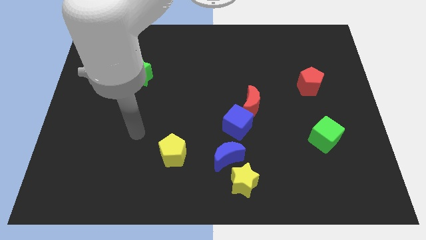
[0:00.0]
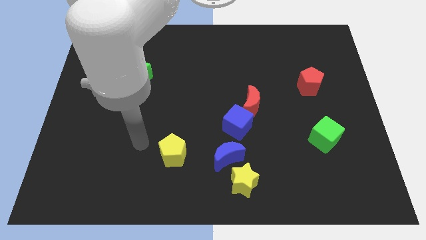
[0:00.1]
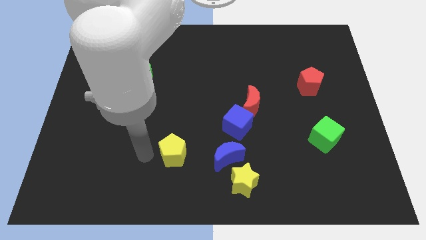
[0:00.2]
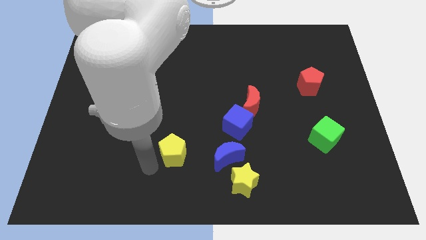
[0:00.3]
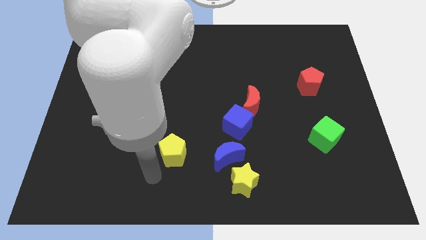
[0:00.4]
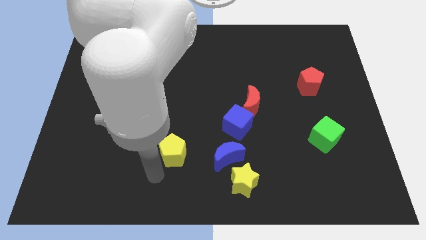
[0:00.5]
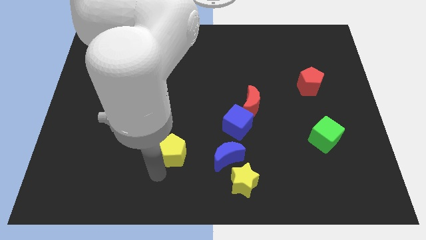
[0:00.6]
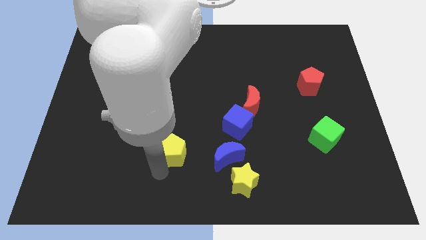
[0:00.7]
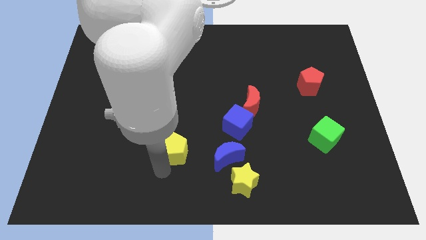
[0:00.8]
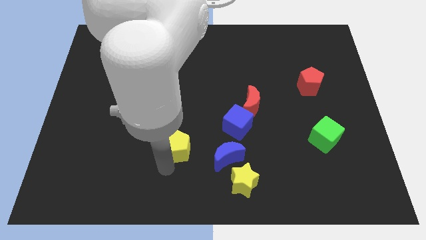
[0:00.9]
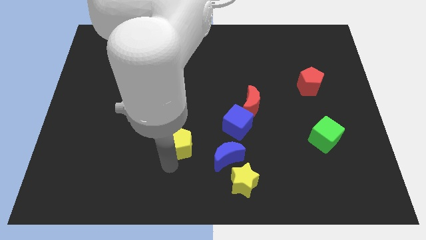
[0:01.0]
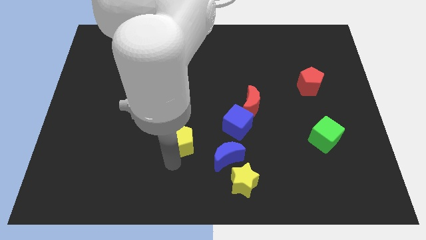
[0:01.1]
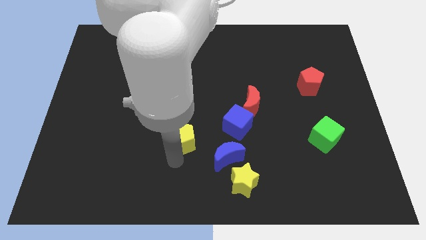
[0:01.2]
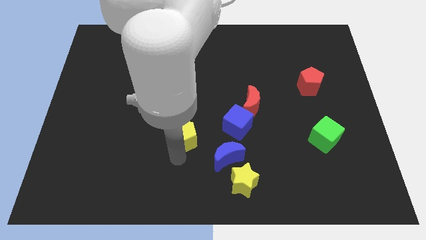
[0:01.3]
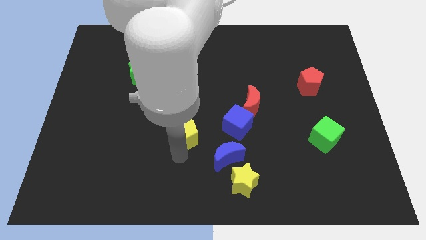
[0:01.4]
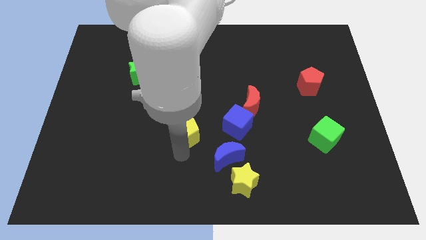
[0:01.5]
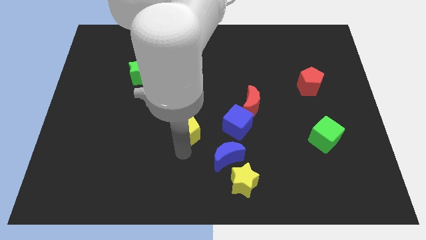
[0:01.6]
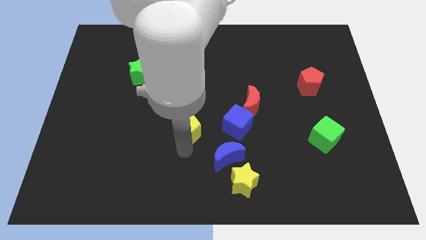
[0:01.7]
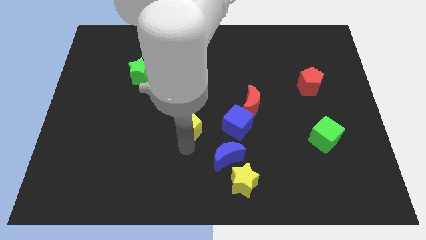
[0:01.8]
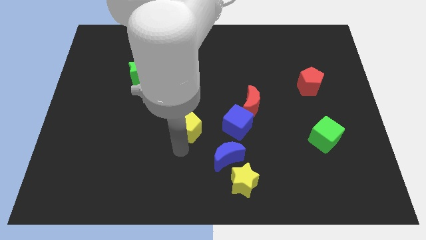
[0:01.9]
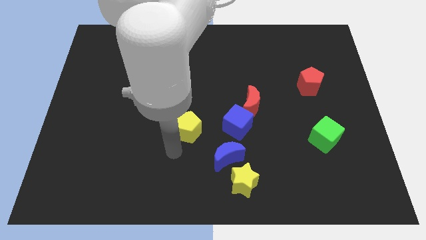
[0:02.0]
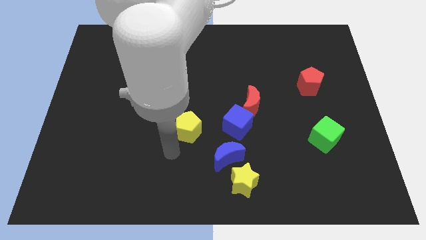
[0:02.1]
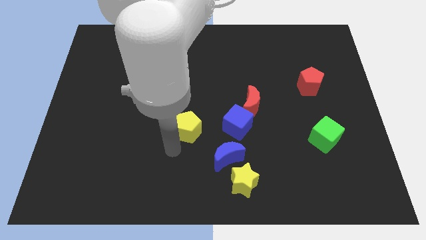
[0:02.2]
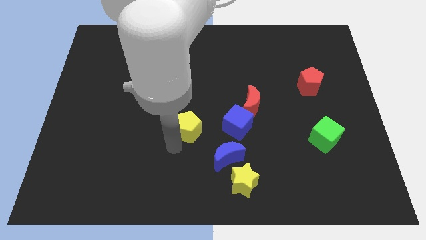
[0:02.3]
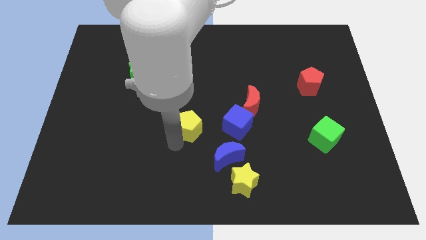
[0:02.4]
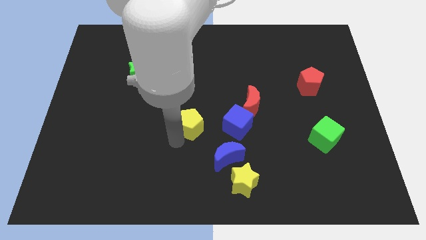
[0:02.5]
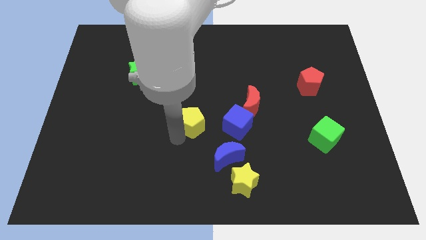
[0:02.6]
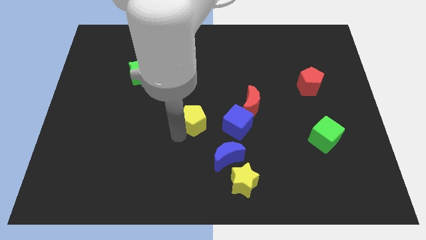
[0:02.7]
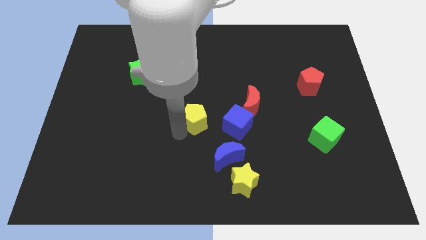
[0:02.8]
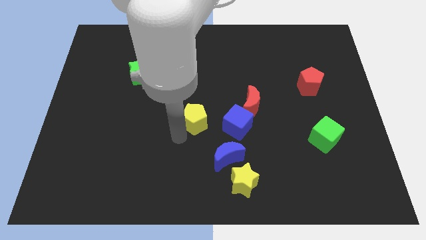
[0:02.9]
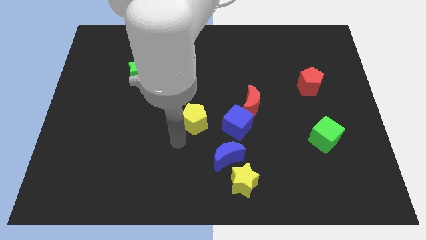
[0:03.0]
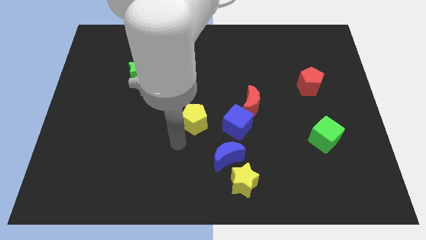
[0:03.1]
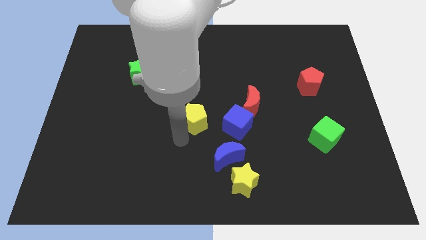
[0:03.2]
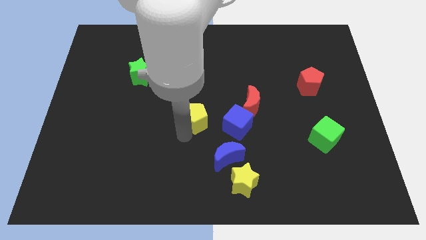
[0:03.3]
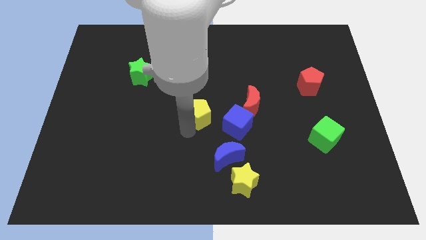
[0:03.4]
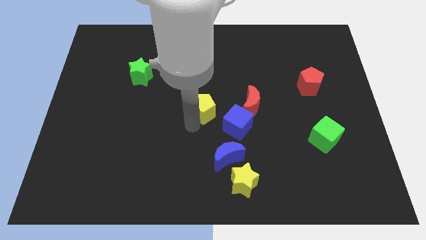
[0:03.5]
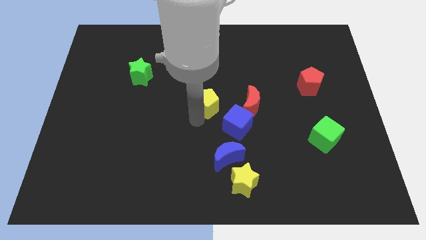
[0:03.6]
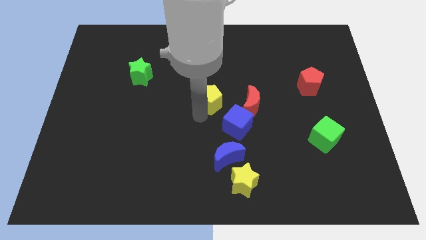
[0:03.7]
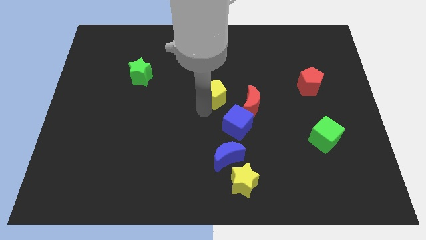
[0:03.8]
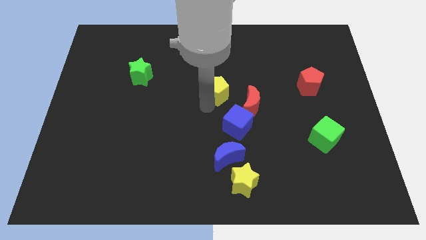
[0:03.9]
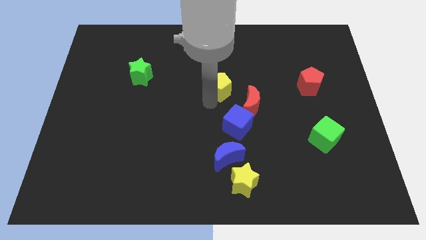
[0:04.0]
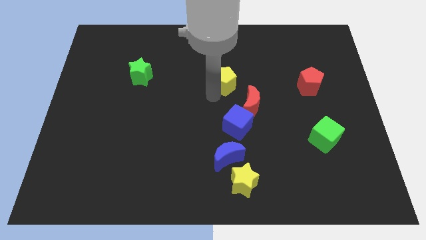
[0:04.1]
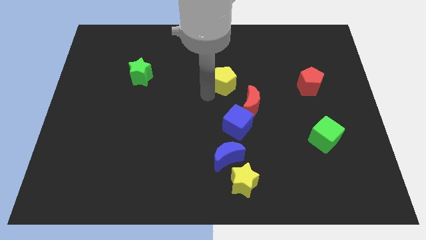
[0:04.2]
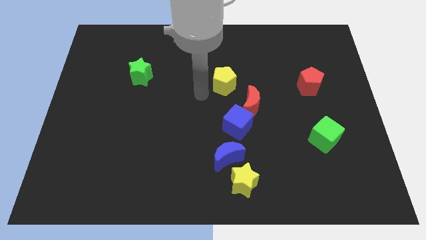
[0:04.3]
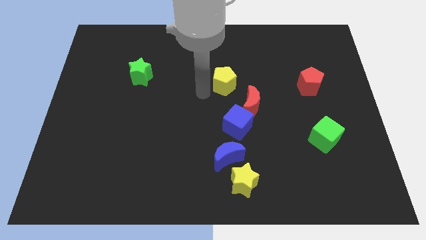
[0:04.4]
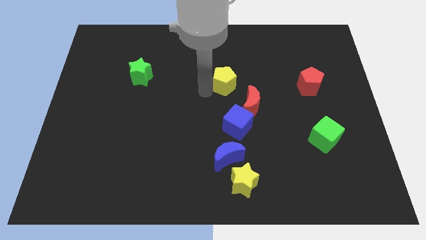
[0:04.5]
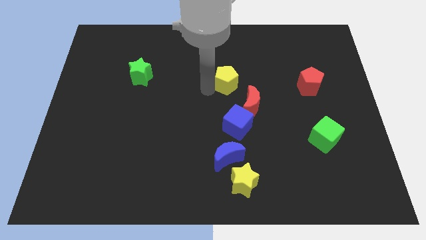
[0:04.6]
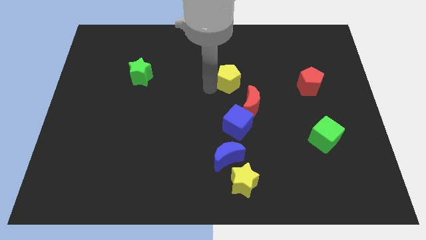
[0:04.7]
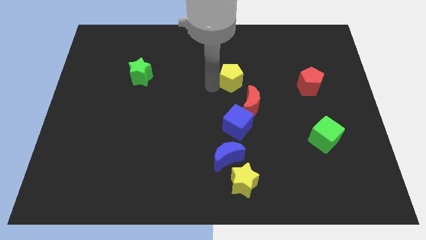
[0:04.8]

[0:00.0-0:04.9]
move the yellow pentagon to the top of the red moon

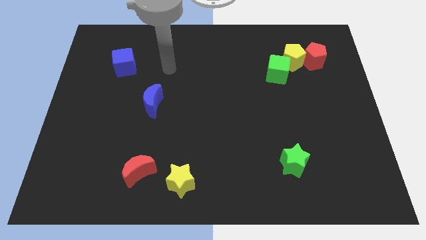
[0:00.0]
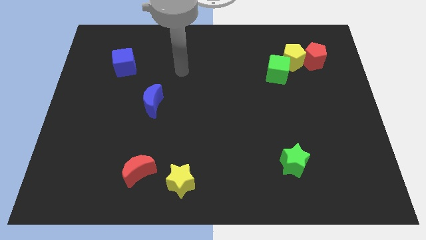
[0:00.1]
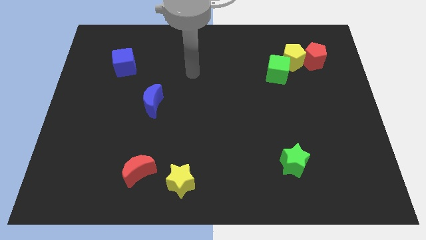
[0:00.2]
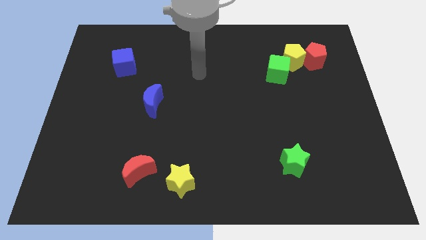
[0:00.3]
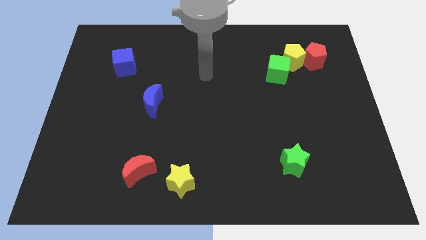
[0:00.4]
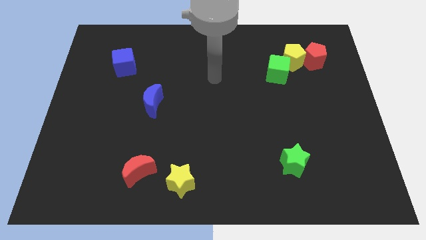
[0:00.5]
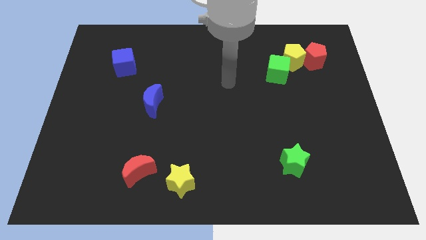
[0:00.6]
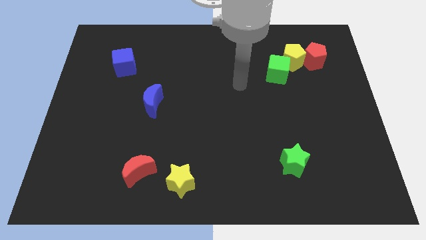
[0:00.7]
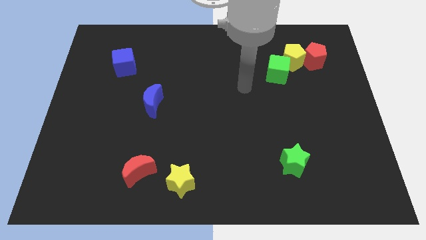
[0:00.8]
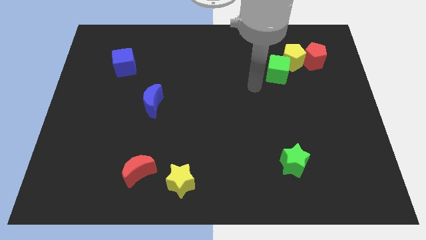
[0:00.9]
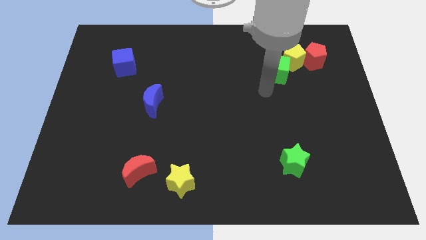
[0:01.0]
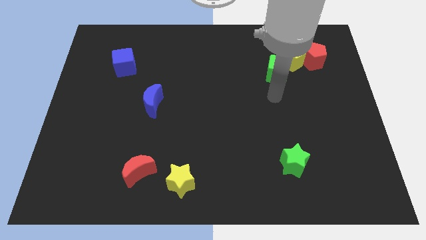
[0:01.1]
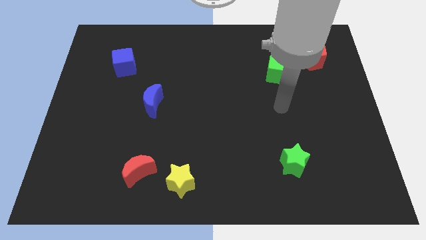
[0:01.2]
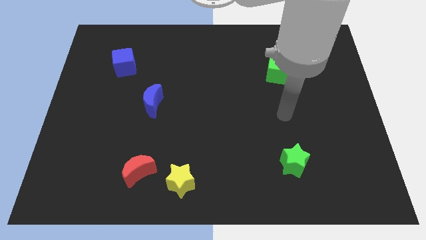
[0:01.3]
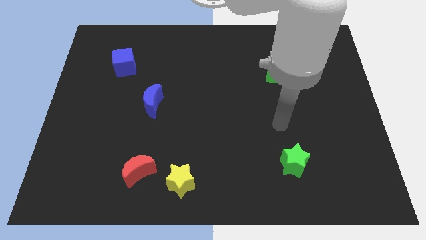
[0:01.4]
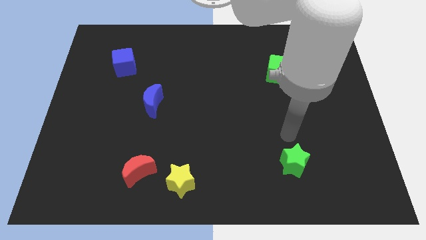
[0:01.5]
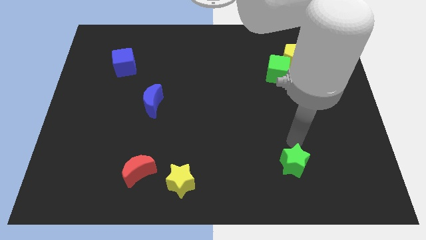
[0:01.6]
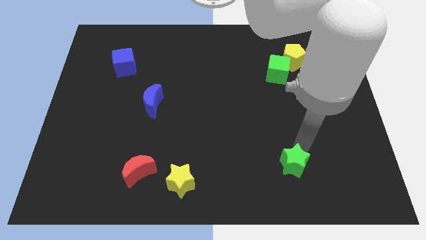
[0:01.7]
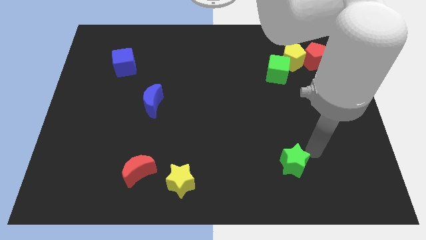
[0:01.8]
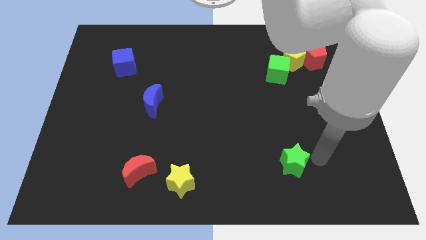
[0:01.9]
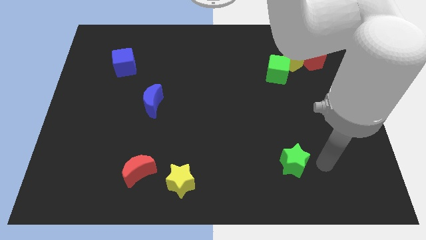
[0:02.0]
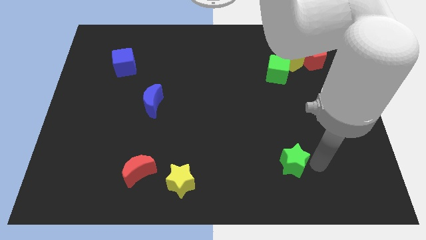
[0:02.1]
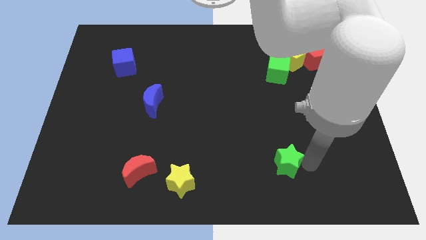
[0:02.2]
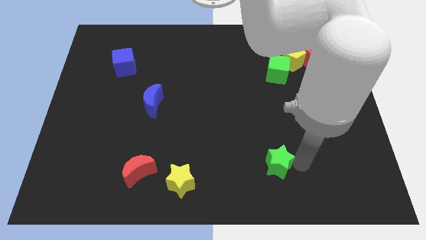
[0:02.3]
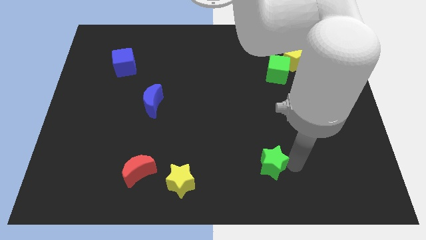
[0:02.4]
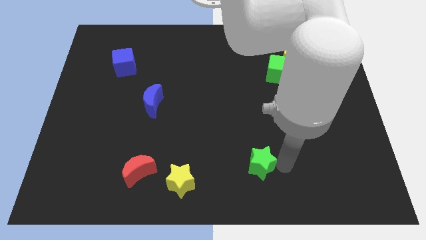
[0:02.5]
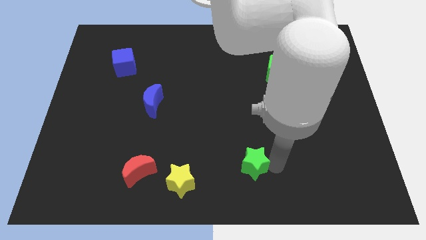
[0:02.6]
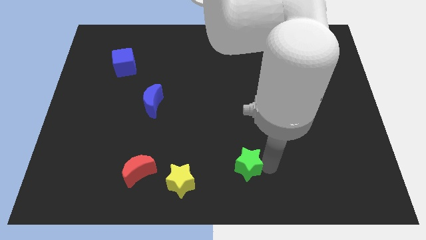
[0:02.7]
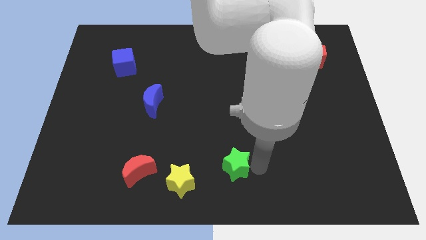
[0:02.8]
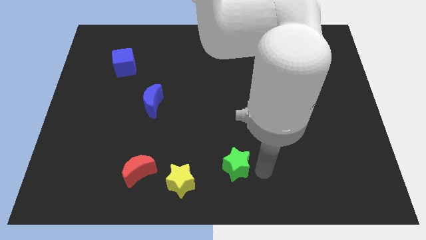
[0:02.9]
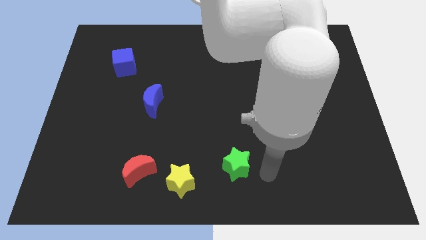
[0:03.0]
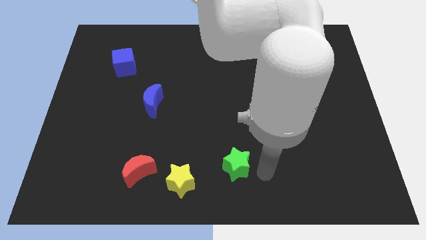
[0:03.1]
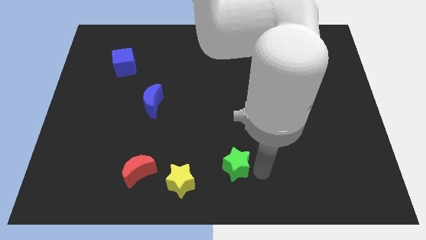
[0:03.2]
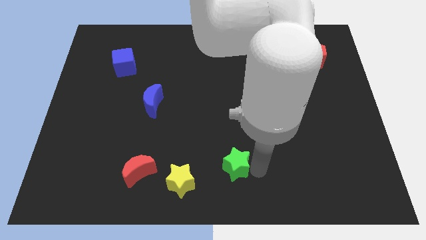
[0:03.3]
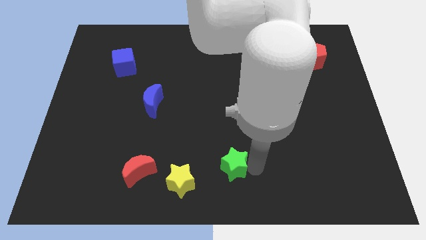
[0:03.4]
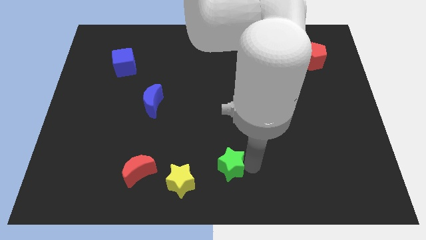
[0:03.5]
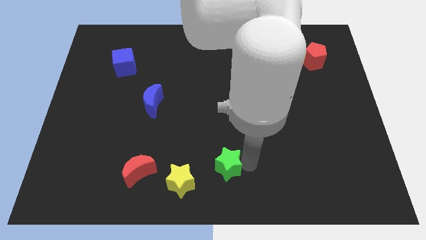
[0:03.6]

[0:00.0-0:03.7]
slide the green star diagonally up and to the right of the yellow star
